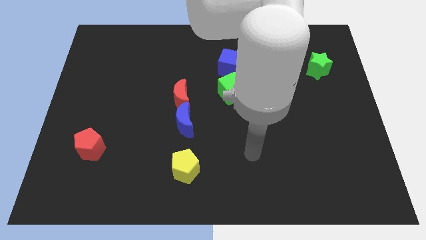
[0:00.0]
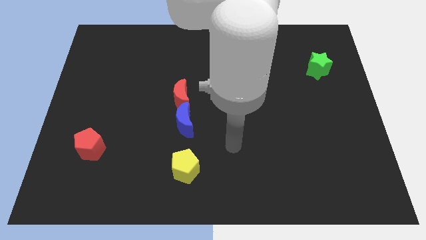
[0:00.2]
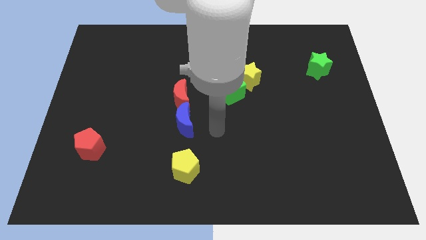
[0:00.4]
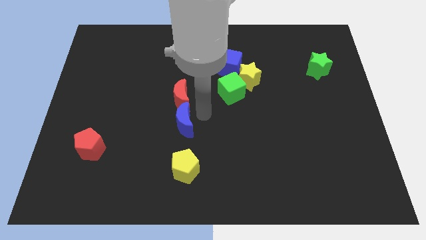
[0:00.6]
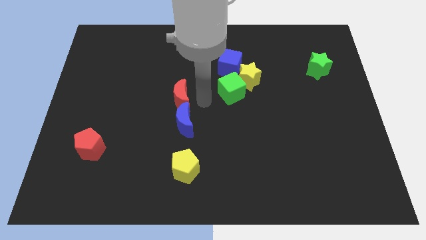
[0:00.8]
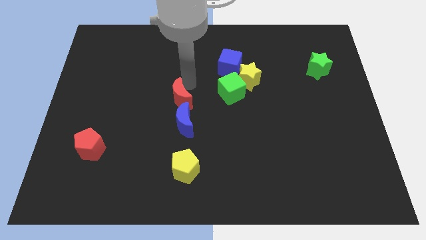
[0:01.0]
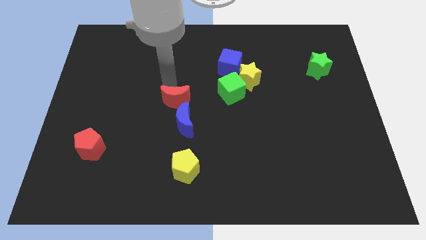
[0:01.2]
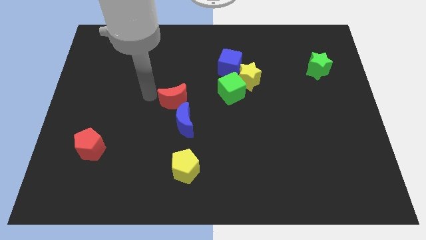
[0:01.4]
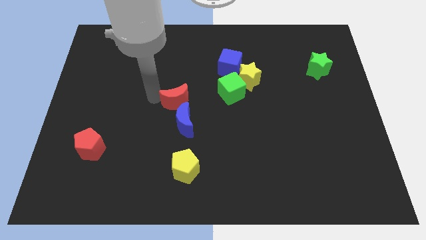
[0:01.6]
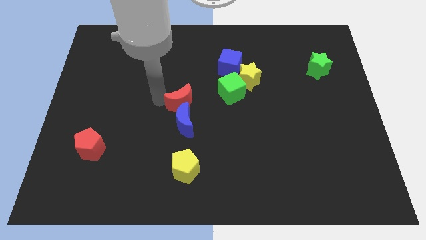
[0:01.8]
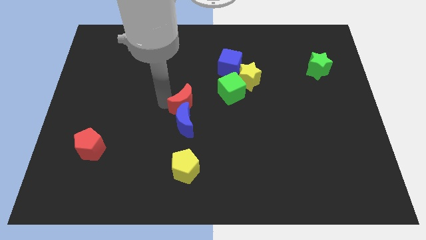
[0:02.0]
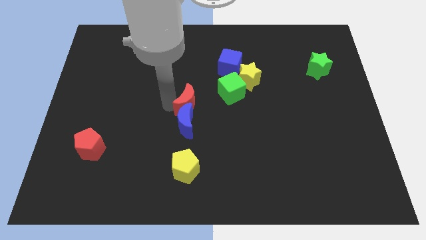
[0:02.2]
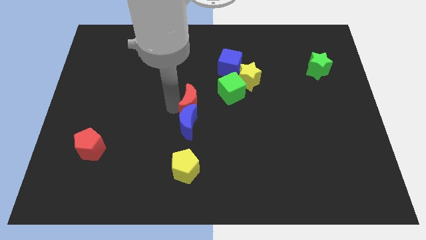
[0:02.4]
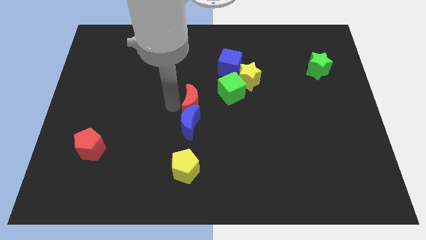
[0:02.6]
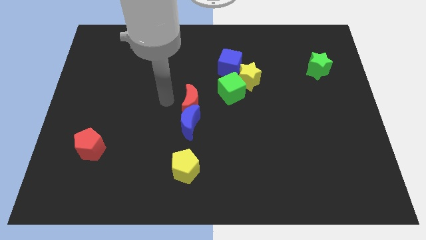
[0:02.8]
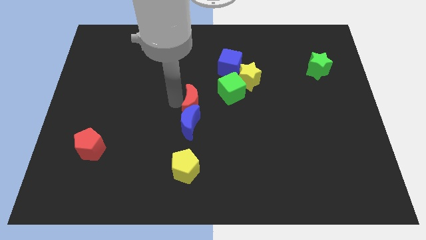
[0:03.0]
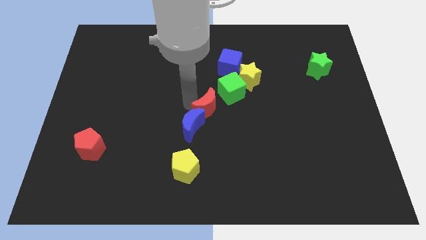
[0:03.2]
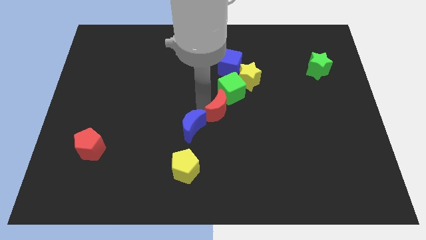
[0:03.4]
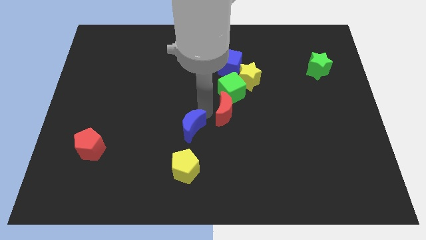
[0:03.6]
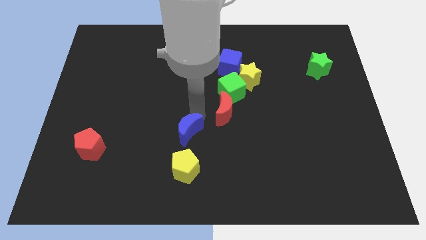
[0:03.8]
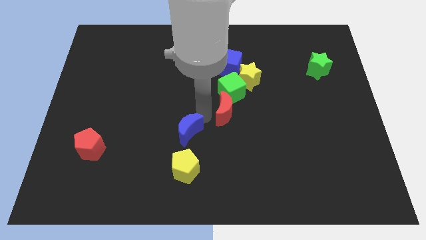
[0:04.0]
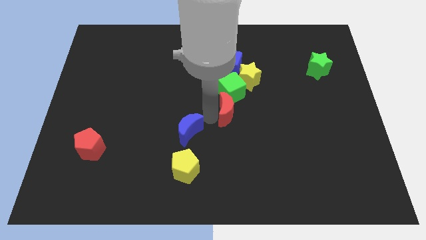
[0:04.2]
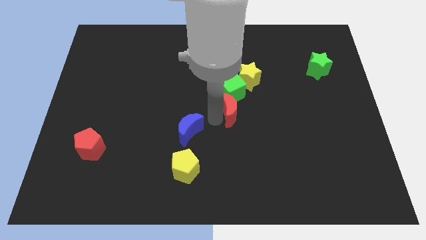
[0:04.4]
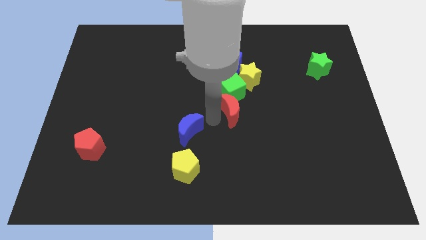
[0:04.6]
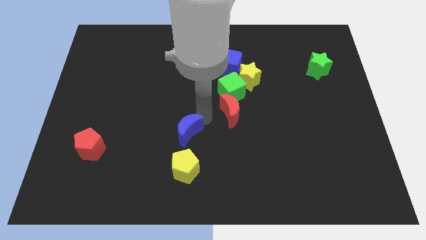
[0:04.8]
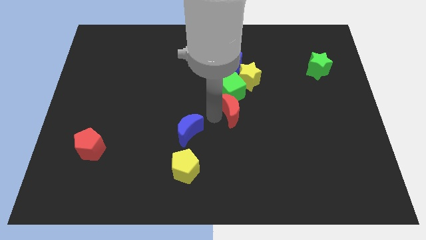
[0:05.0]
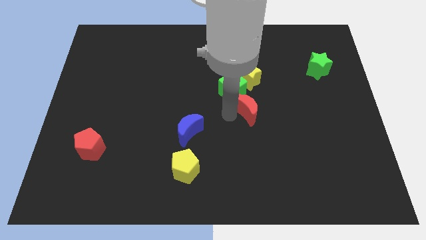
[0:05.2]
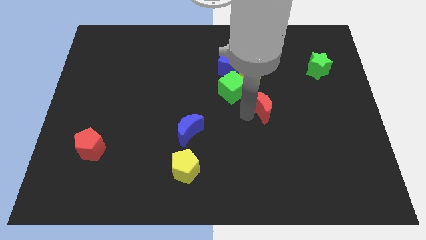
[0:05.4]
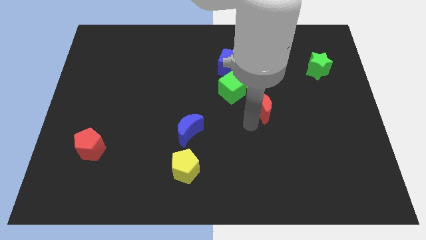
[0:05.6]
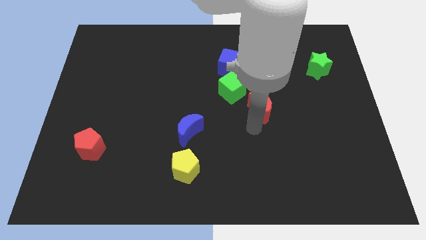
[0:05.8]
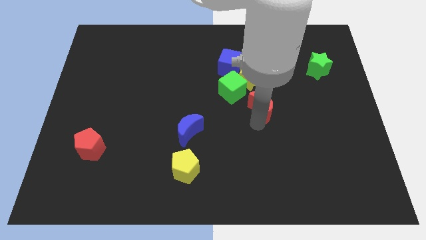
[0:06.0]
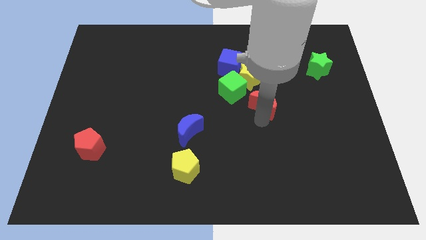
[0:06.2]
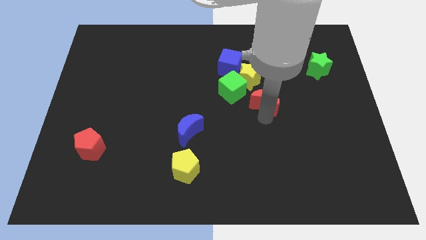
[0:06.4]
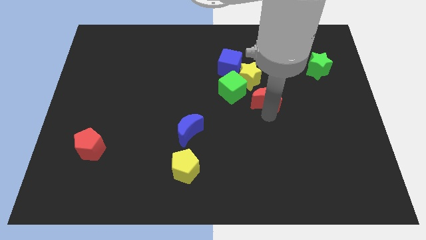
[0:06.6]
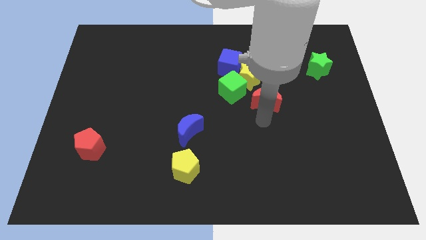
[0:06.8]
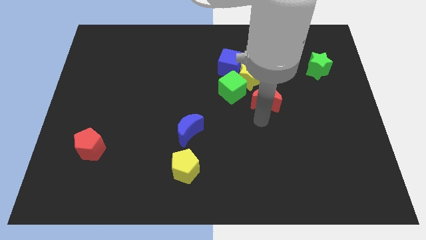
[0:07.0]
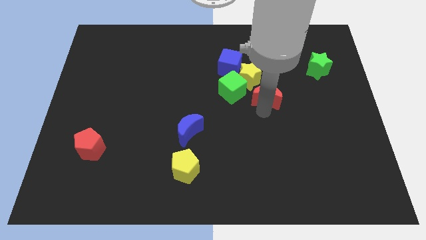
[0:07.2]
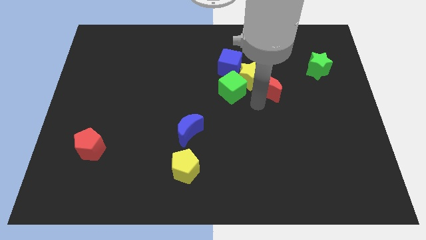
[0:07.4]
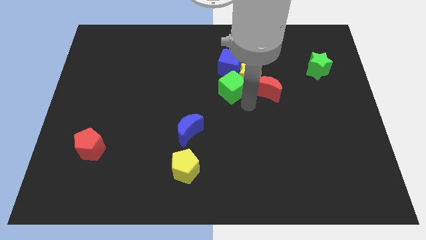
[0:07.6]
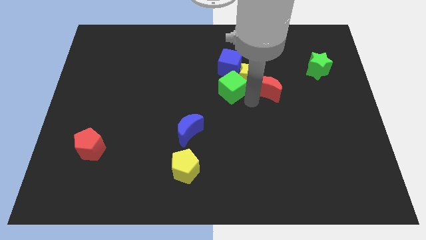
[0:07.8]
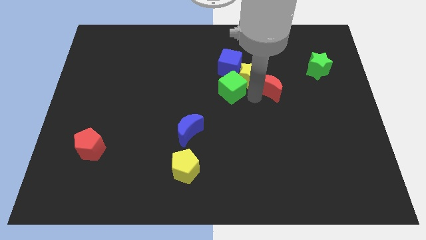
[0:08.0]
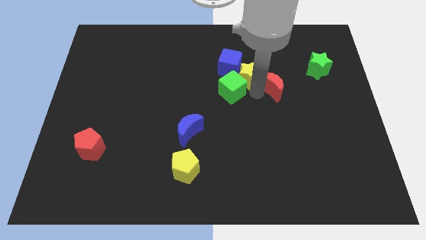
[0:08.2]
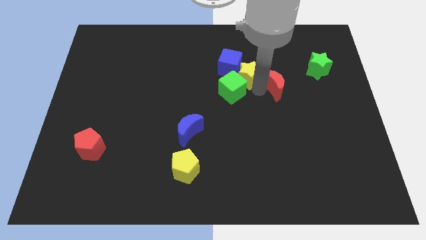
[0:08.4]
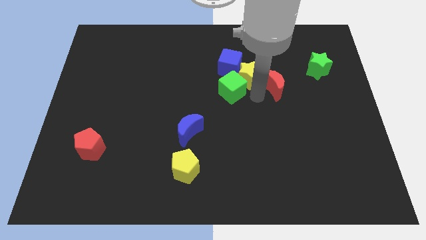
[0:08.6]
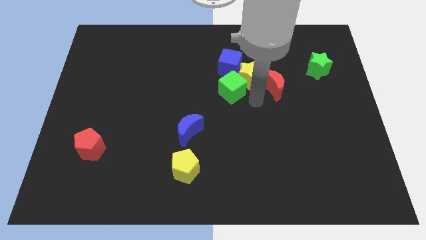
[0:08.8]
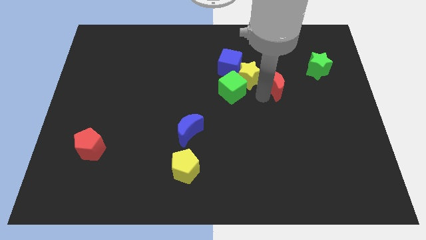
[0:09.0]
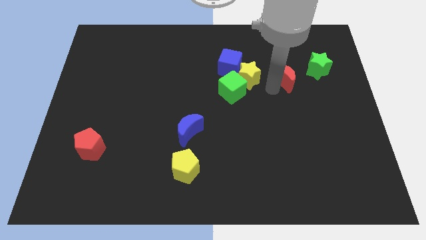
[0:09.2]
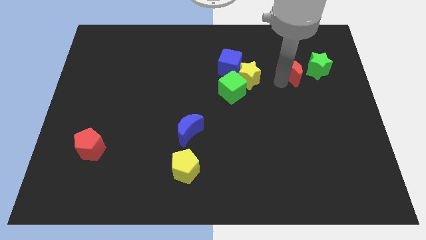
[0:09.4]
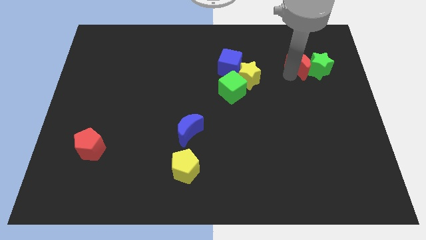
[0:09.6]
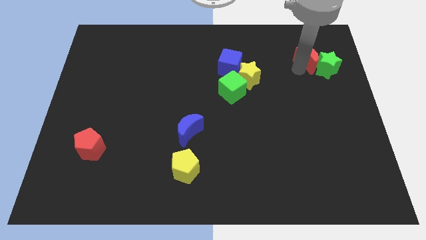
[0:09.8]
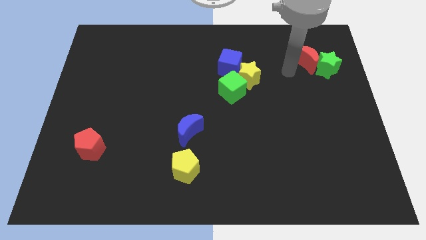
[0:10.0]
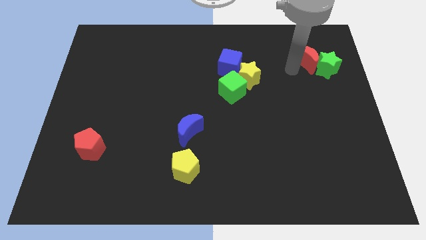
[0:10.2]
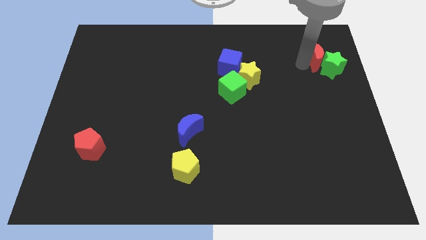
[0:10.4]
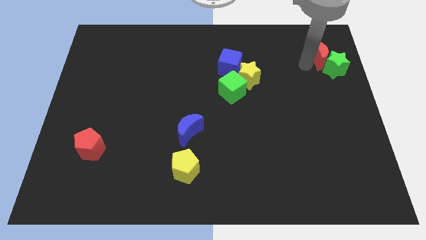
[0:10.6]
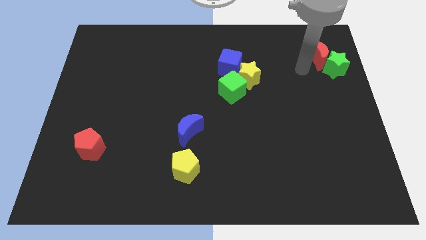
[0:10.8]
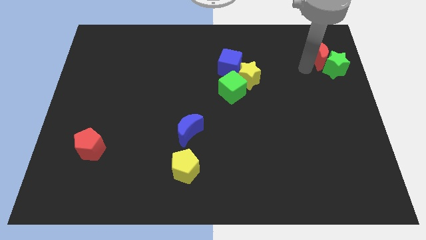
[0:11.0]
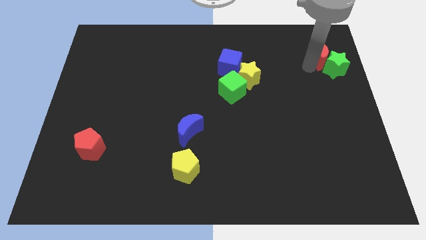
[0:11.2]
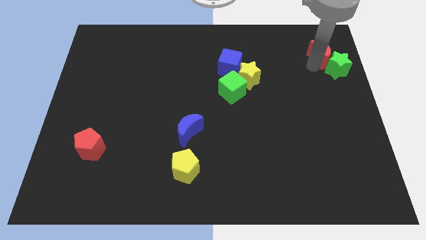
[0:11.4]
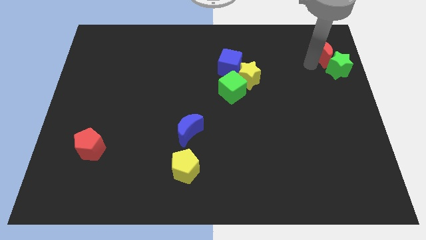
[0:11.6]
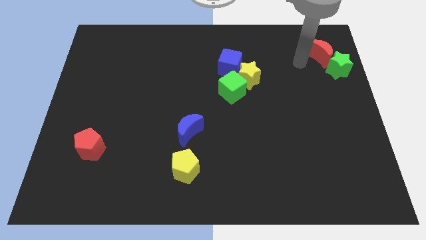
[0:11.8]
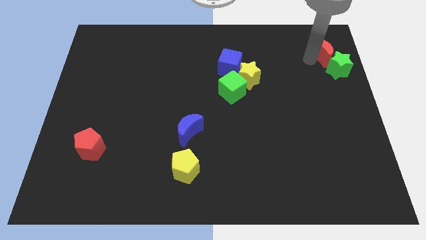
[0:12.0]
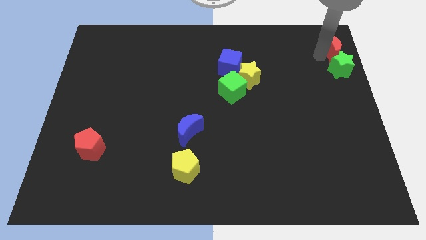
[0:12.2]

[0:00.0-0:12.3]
push the red moon to the top right corner
